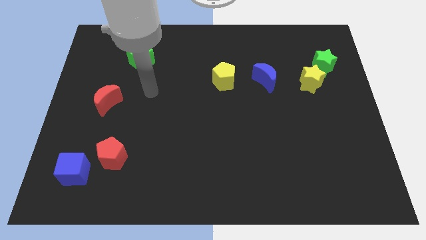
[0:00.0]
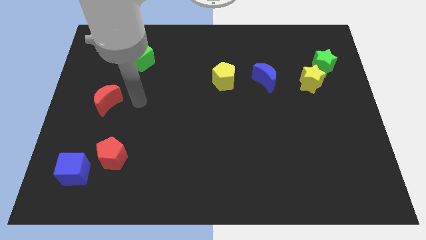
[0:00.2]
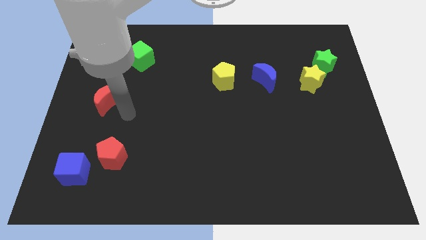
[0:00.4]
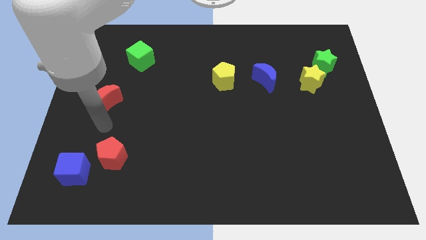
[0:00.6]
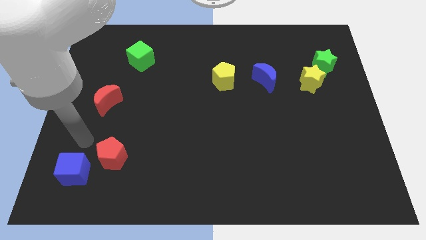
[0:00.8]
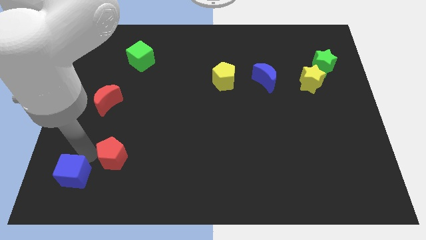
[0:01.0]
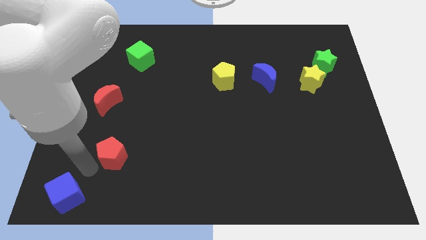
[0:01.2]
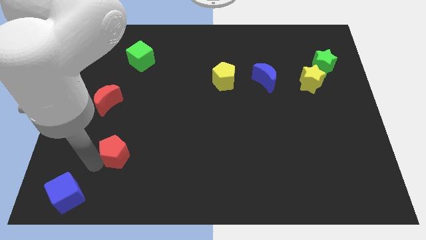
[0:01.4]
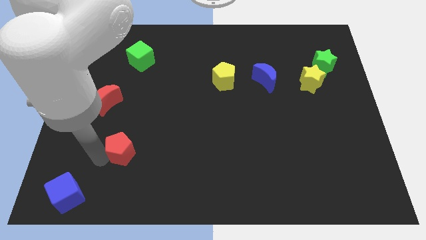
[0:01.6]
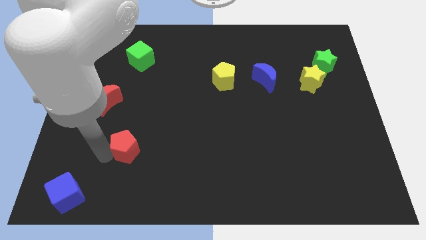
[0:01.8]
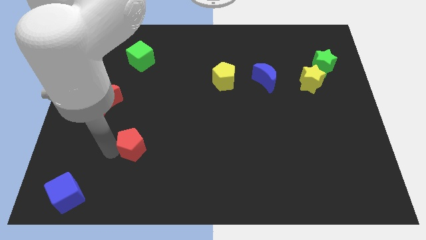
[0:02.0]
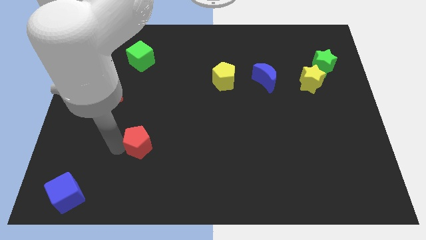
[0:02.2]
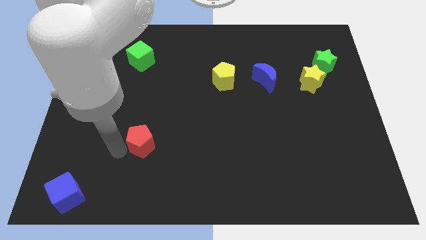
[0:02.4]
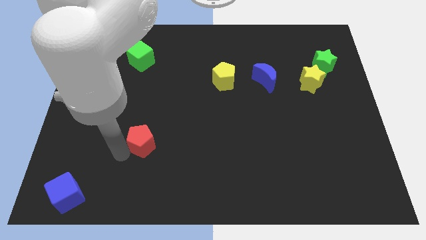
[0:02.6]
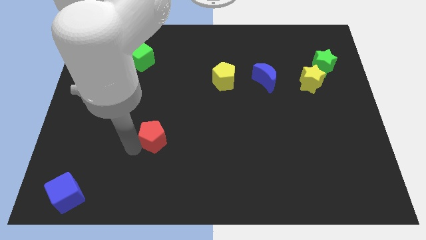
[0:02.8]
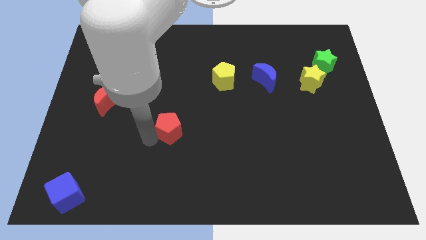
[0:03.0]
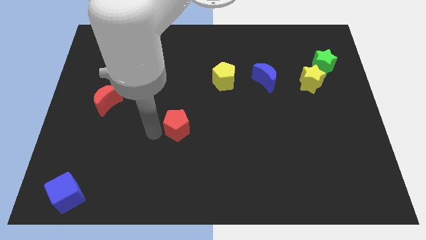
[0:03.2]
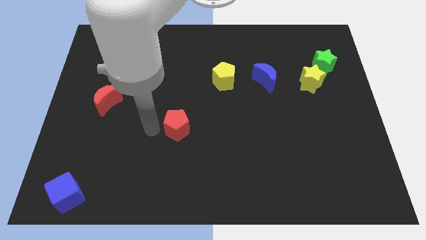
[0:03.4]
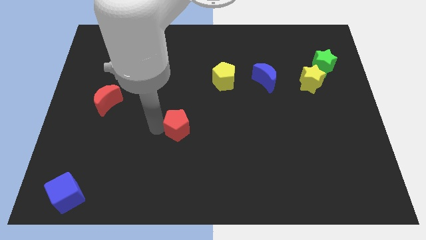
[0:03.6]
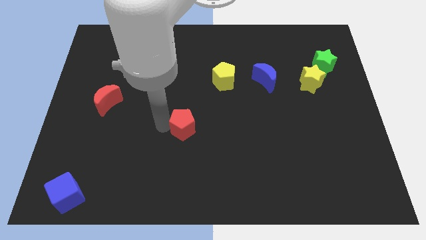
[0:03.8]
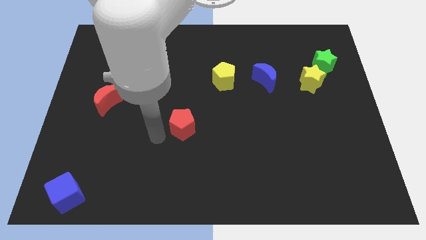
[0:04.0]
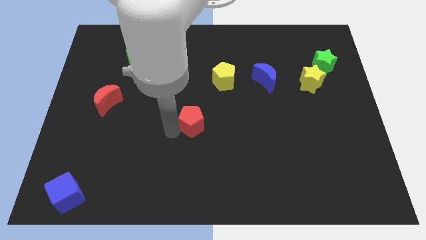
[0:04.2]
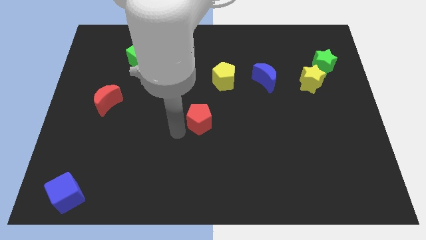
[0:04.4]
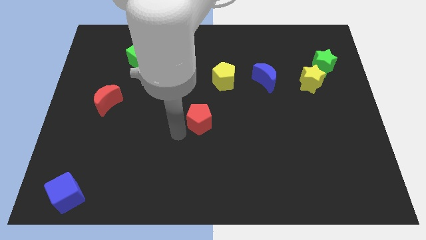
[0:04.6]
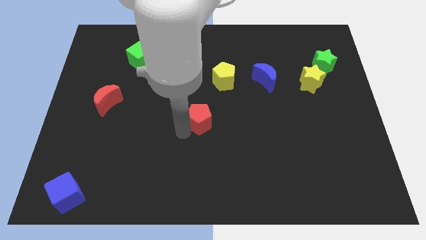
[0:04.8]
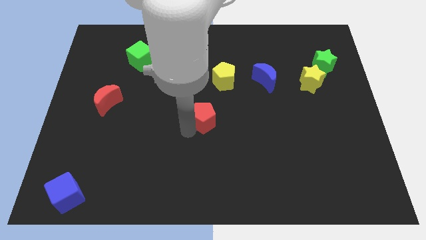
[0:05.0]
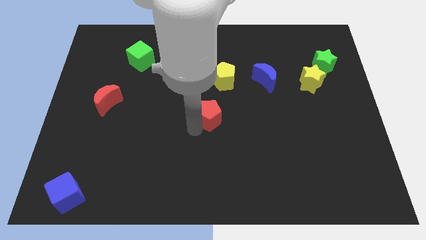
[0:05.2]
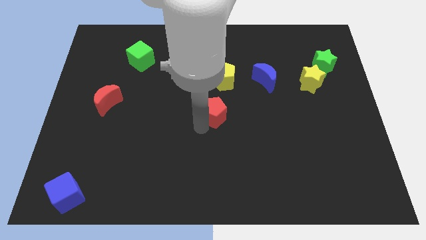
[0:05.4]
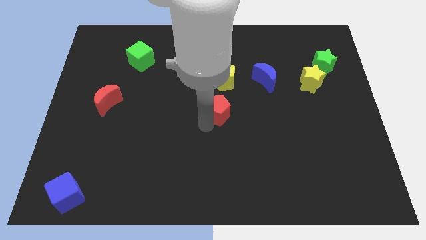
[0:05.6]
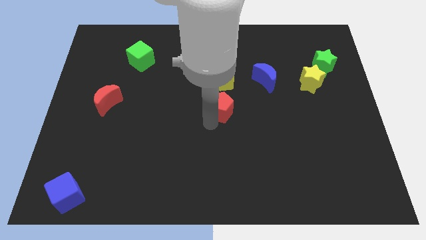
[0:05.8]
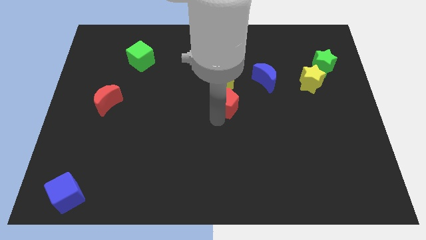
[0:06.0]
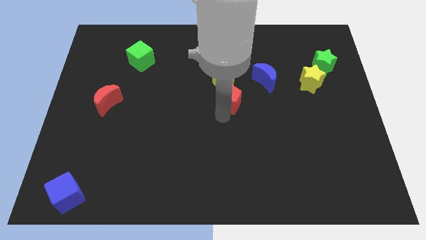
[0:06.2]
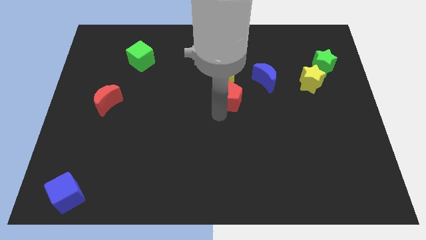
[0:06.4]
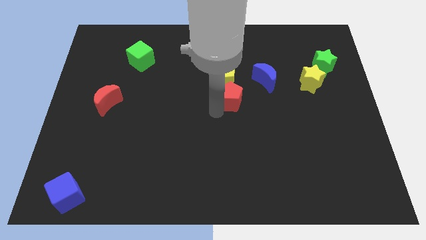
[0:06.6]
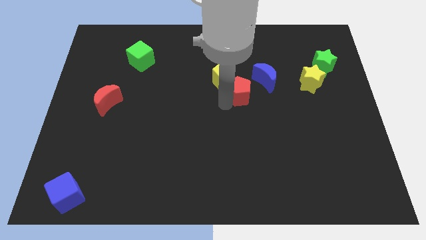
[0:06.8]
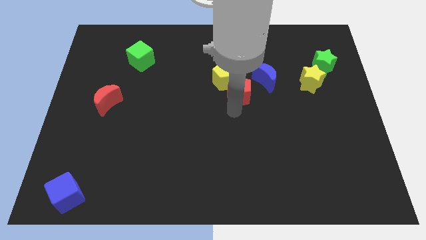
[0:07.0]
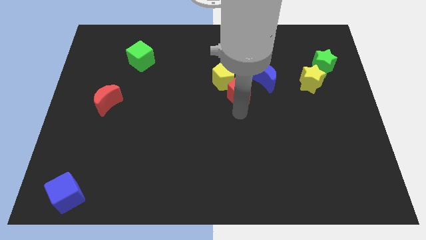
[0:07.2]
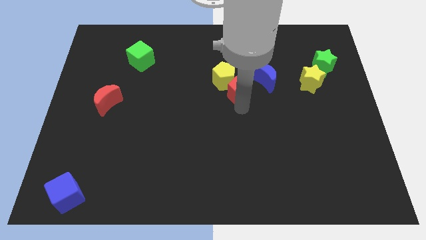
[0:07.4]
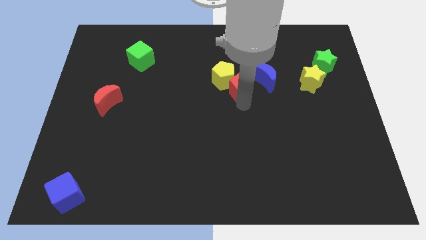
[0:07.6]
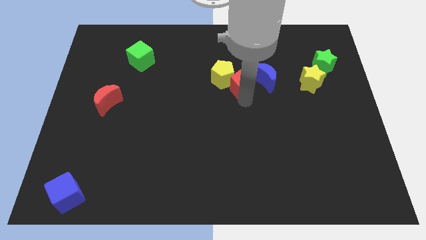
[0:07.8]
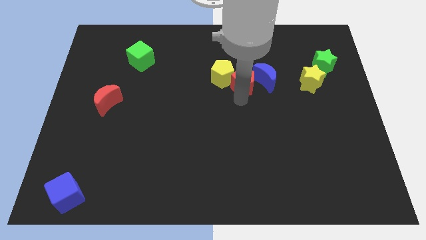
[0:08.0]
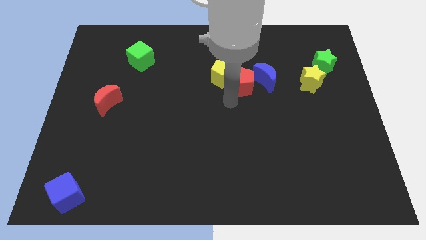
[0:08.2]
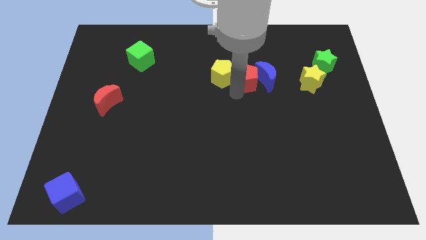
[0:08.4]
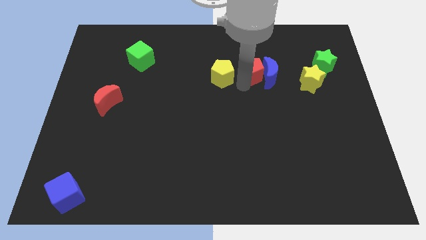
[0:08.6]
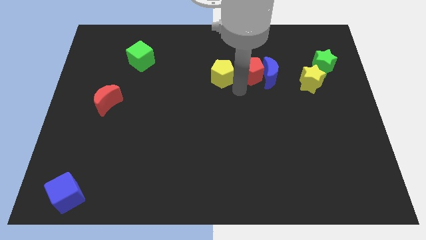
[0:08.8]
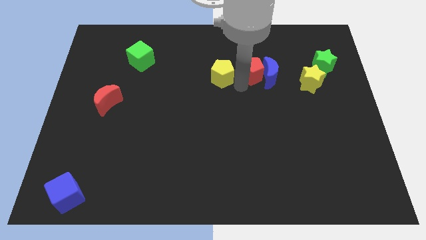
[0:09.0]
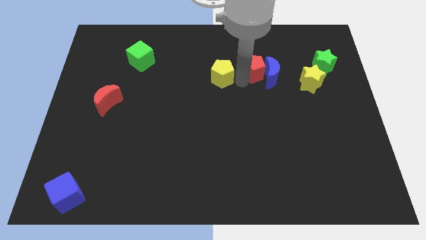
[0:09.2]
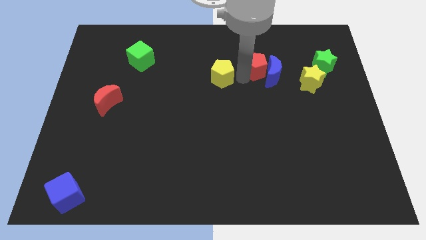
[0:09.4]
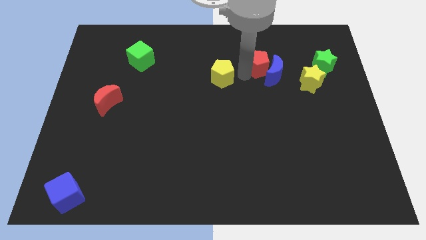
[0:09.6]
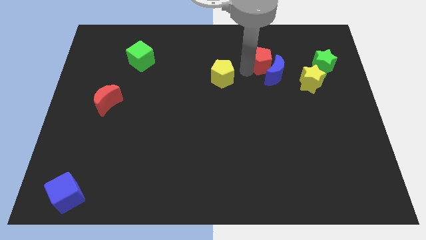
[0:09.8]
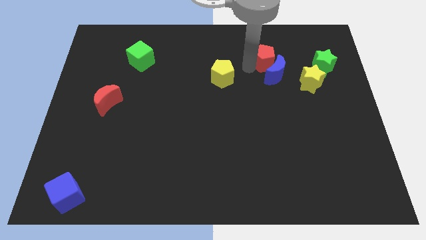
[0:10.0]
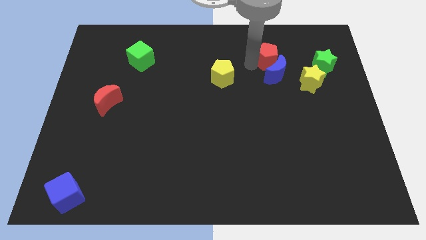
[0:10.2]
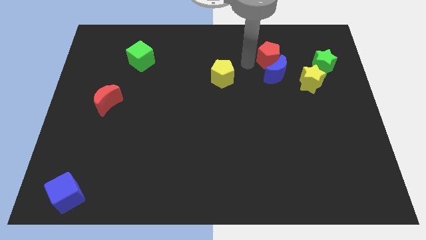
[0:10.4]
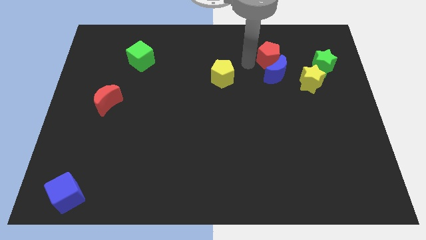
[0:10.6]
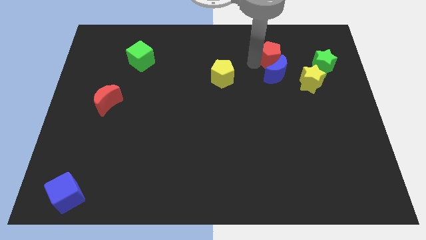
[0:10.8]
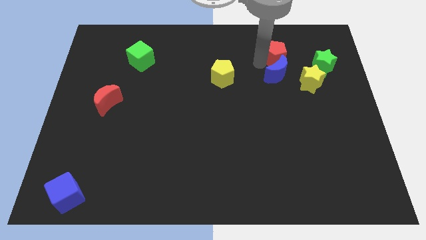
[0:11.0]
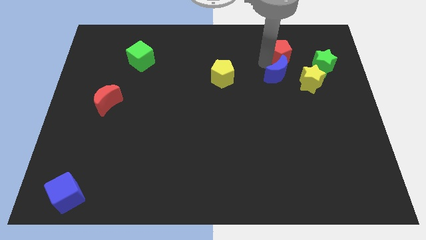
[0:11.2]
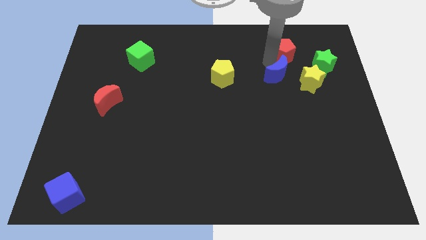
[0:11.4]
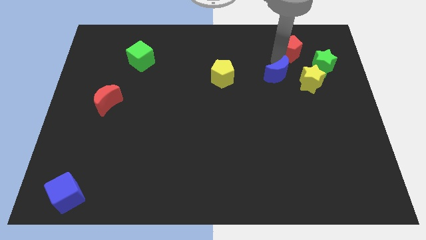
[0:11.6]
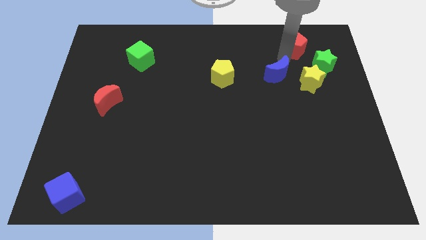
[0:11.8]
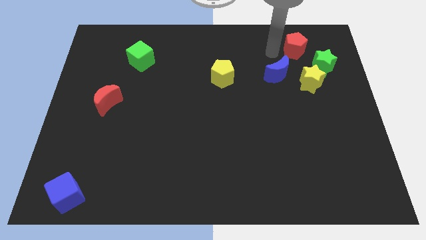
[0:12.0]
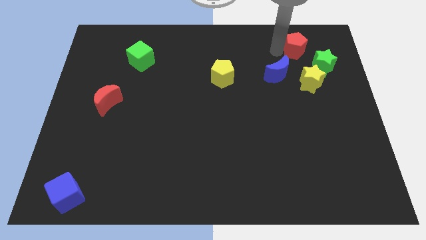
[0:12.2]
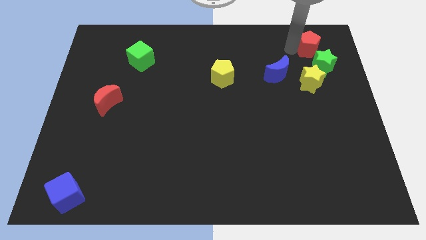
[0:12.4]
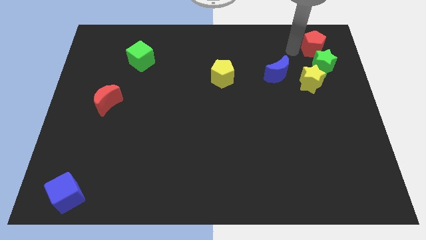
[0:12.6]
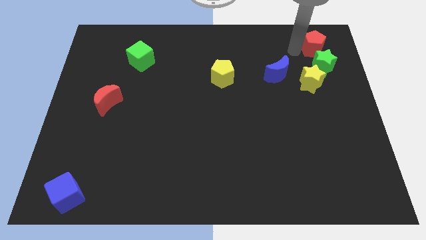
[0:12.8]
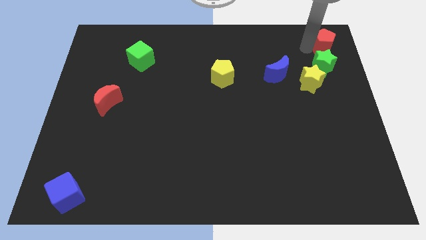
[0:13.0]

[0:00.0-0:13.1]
move the red pentagon to the top right

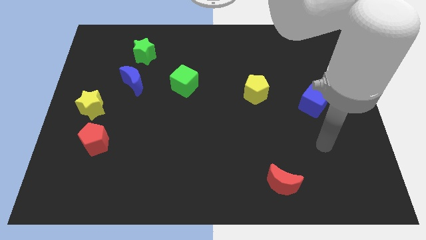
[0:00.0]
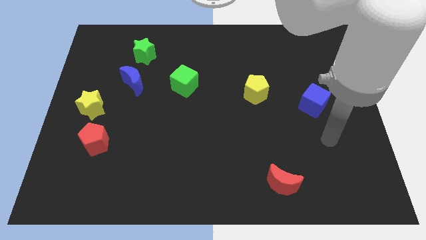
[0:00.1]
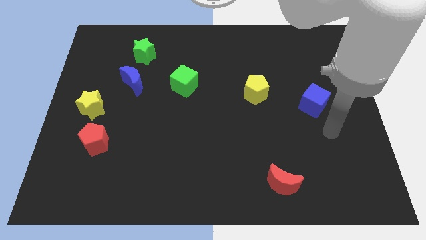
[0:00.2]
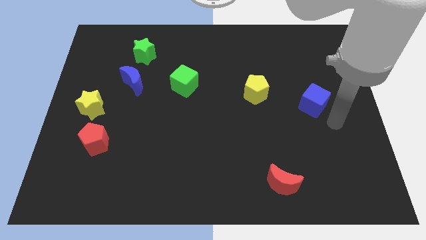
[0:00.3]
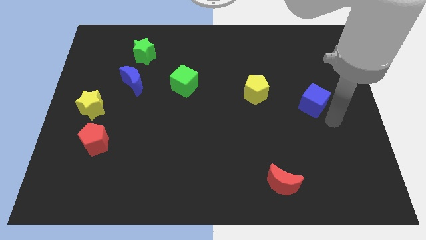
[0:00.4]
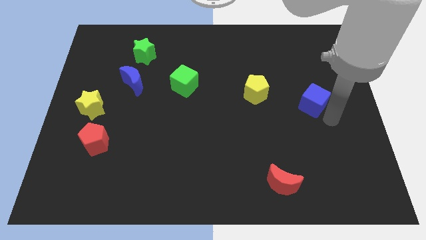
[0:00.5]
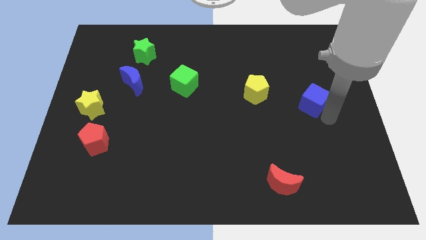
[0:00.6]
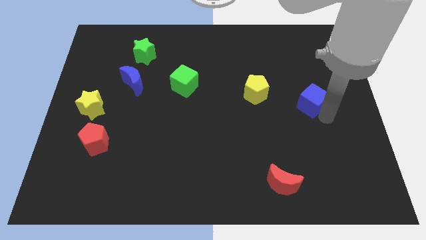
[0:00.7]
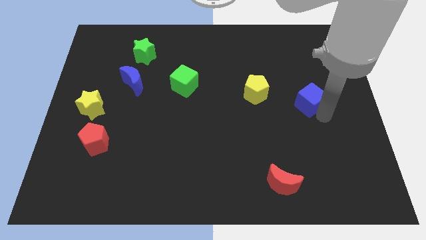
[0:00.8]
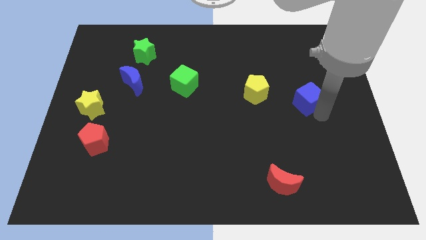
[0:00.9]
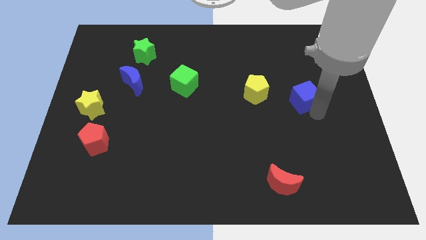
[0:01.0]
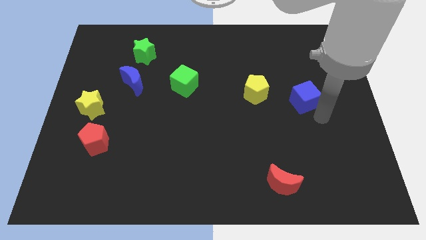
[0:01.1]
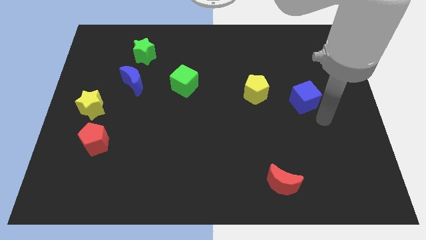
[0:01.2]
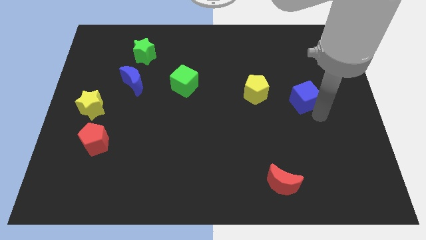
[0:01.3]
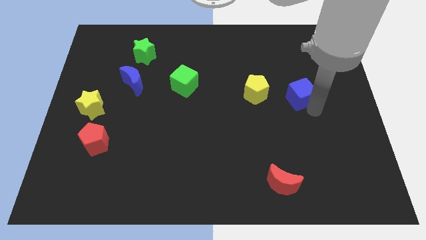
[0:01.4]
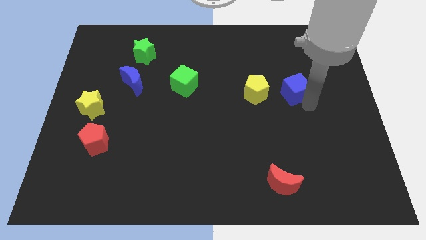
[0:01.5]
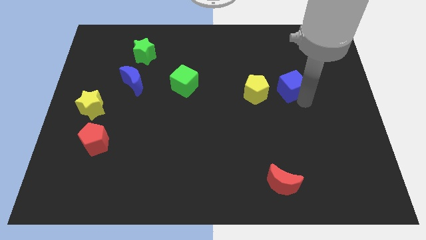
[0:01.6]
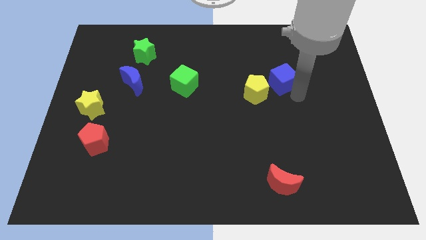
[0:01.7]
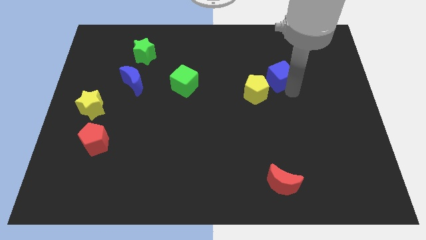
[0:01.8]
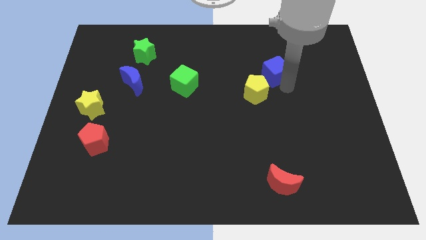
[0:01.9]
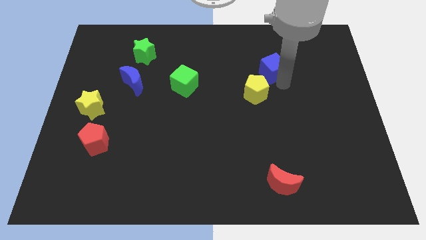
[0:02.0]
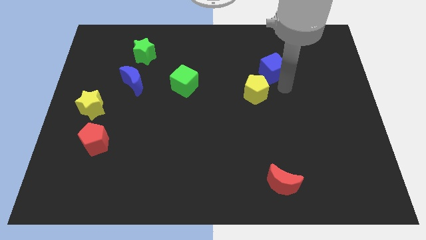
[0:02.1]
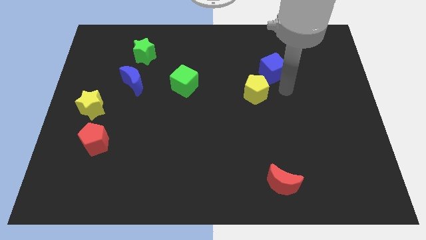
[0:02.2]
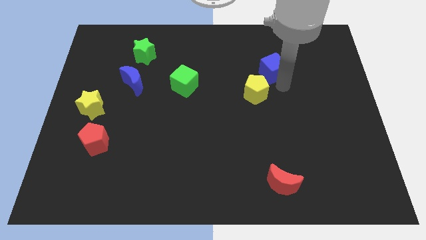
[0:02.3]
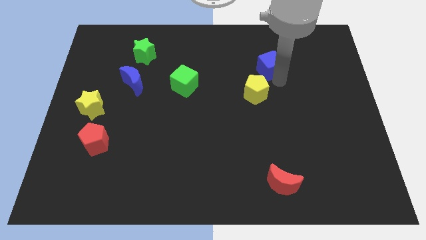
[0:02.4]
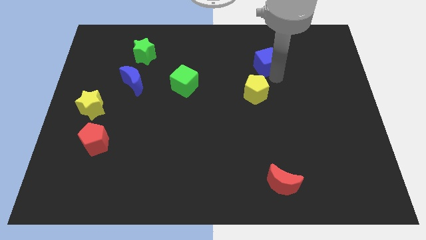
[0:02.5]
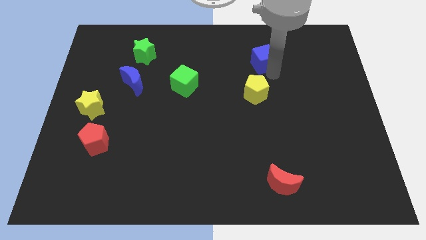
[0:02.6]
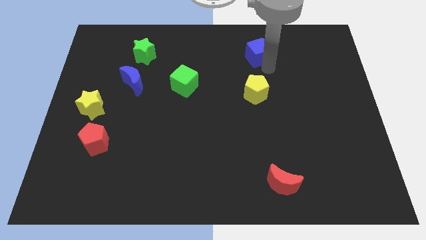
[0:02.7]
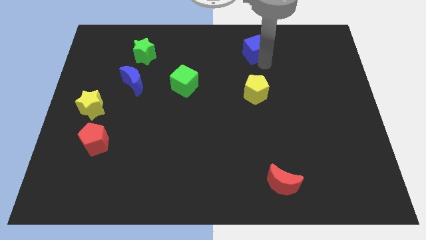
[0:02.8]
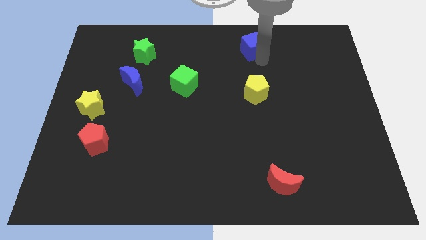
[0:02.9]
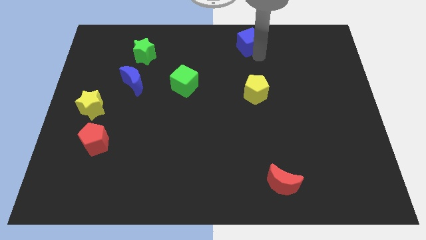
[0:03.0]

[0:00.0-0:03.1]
put the blue cube to the top
